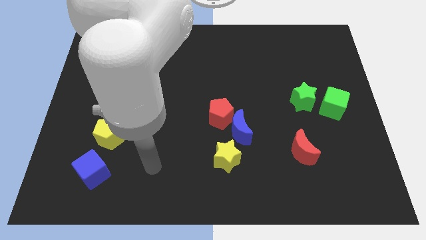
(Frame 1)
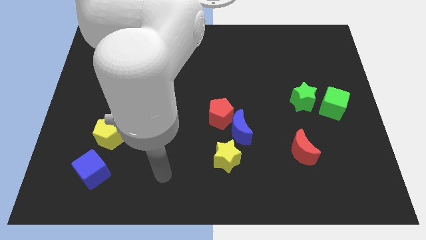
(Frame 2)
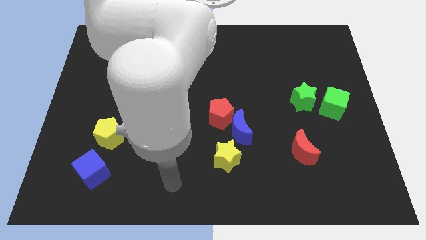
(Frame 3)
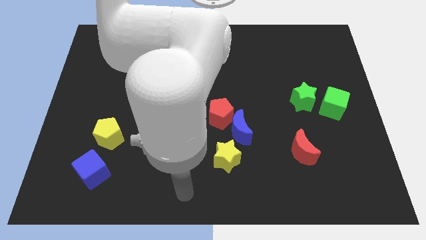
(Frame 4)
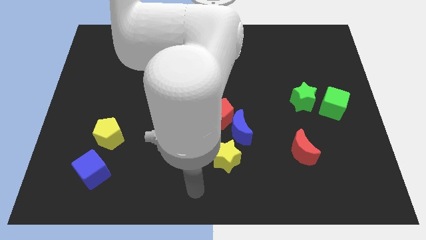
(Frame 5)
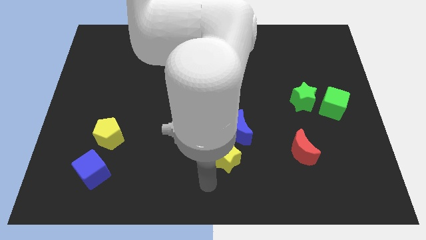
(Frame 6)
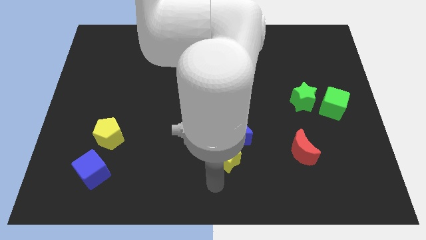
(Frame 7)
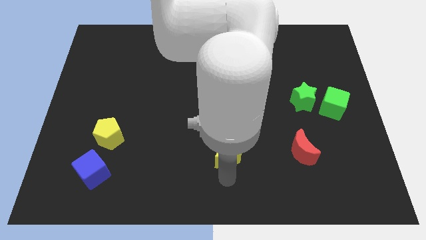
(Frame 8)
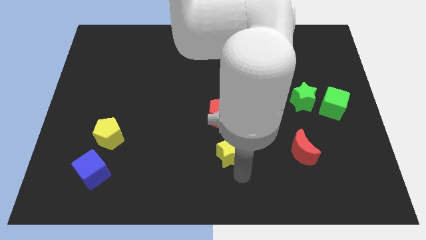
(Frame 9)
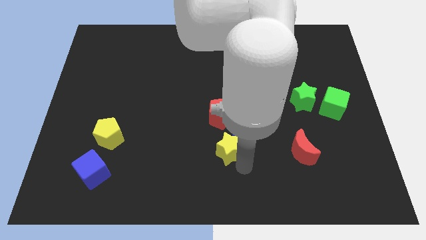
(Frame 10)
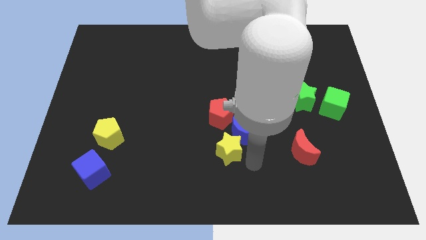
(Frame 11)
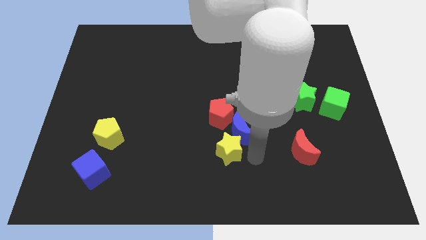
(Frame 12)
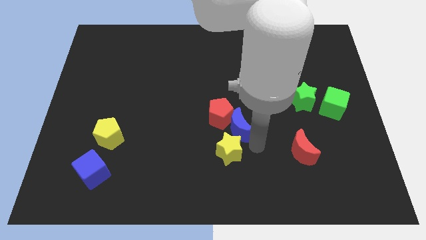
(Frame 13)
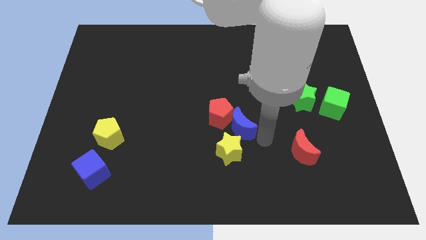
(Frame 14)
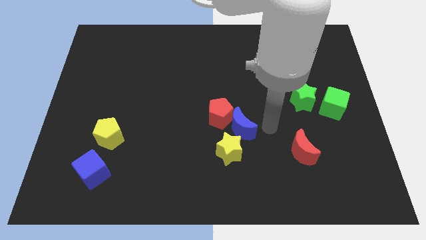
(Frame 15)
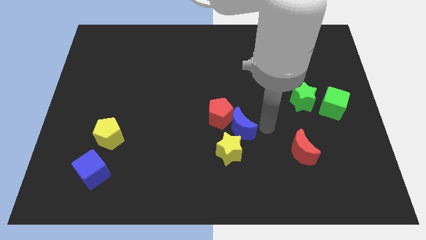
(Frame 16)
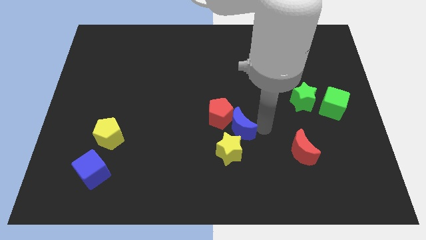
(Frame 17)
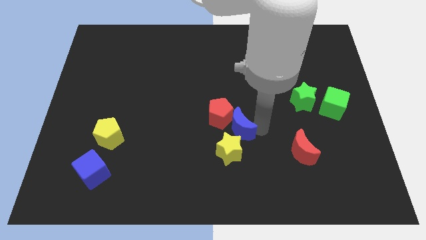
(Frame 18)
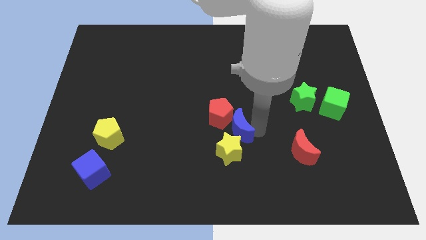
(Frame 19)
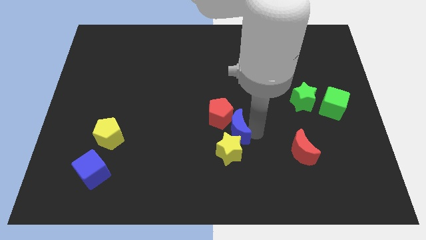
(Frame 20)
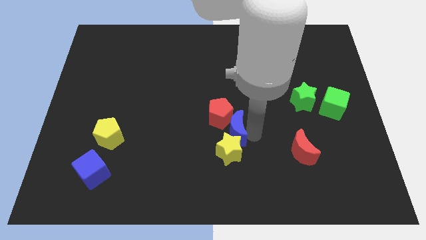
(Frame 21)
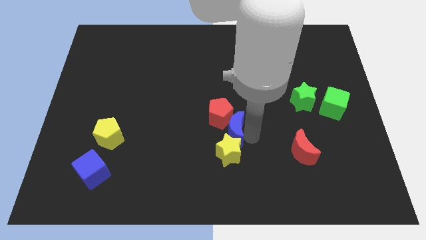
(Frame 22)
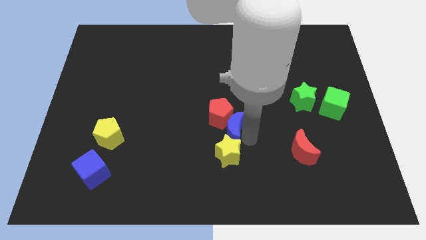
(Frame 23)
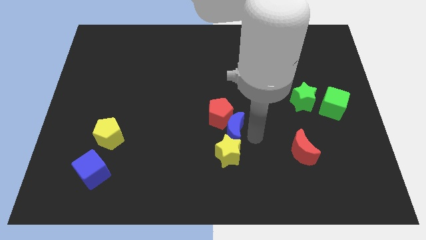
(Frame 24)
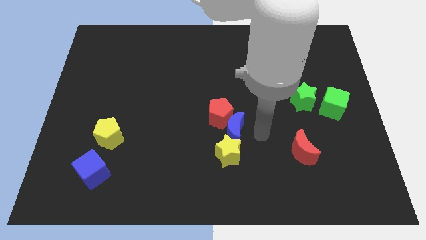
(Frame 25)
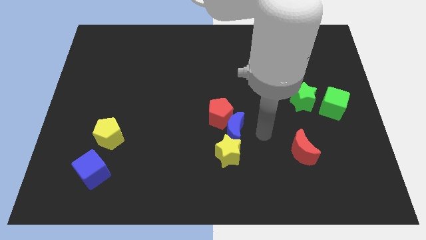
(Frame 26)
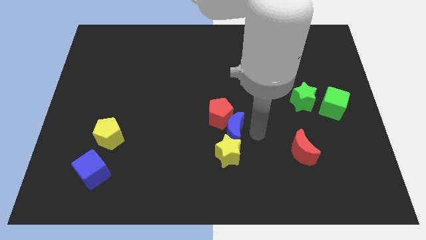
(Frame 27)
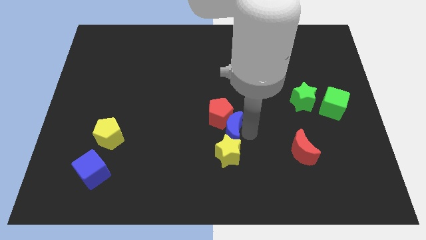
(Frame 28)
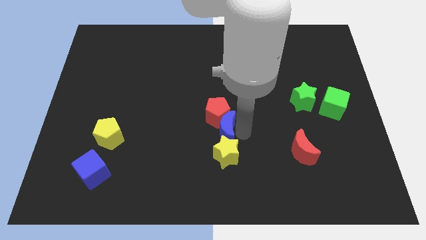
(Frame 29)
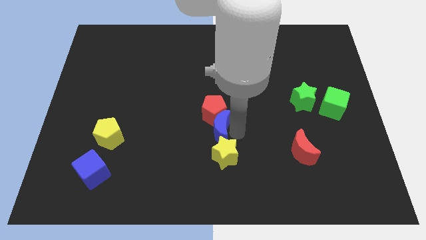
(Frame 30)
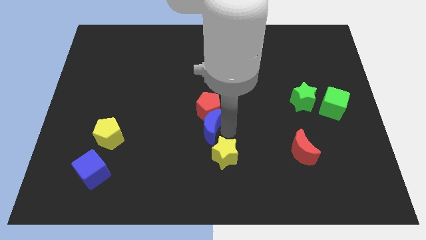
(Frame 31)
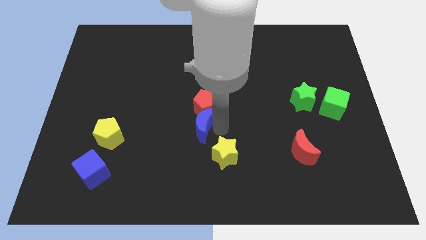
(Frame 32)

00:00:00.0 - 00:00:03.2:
slightly slide the blue moon left

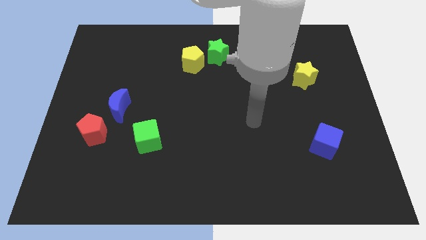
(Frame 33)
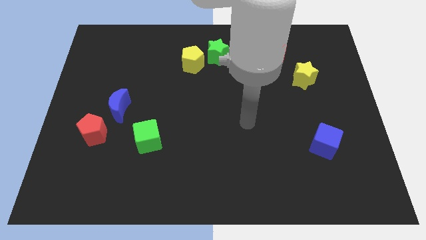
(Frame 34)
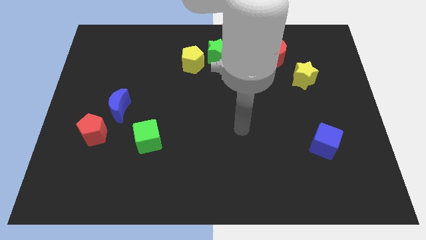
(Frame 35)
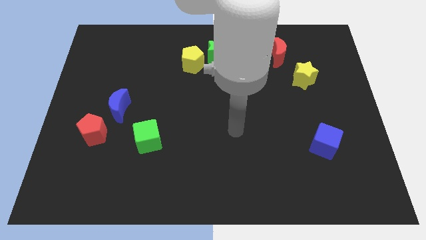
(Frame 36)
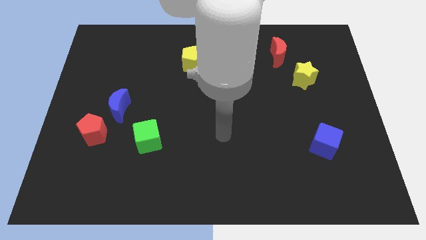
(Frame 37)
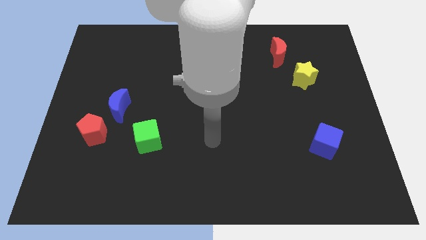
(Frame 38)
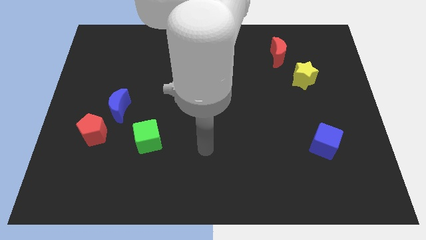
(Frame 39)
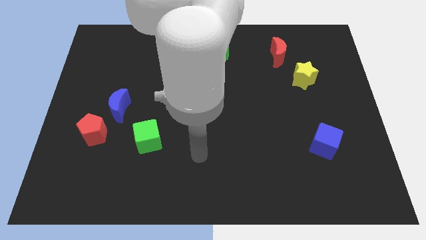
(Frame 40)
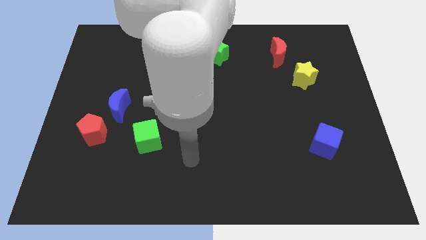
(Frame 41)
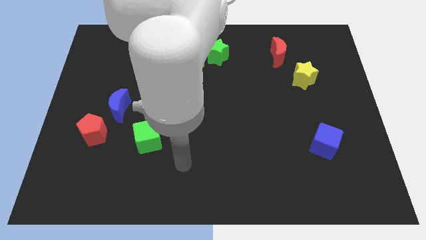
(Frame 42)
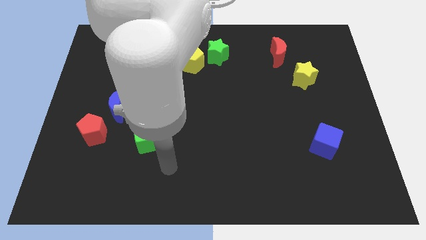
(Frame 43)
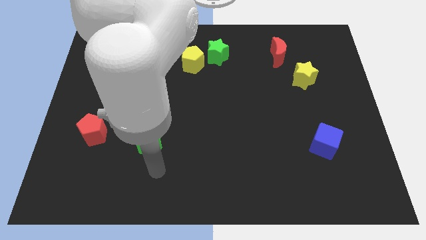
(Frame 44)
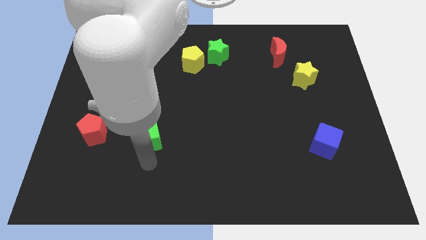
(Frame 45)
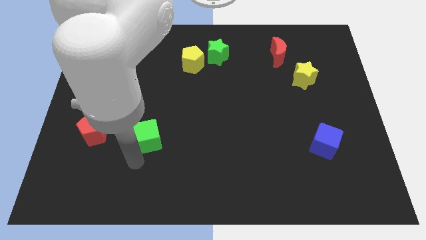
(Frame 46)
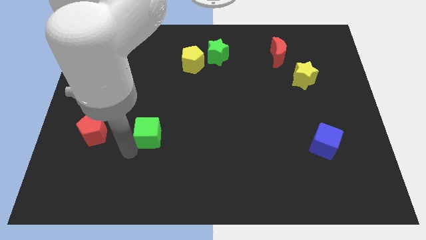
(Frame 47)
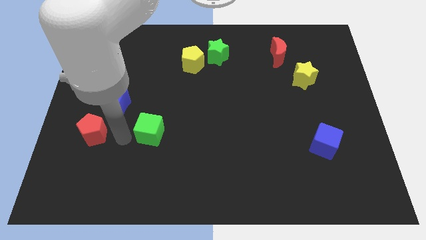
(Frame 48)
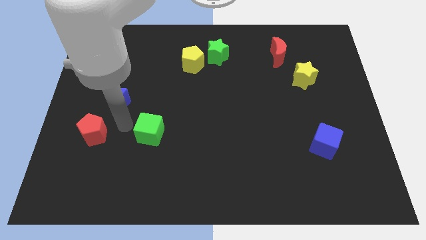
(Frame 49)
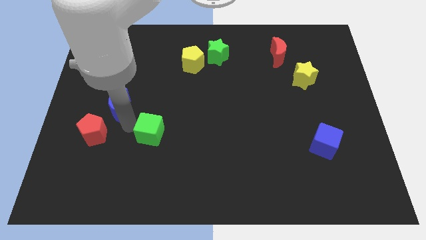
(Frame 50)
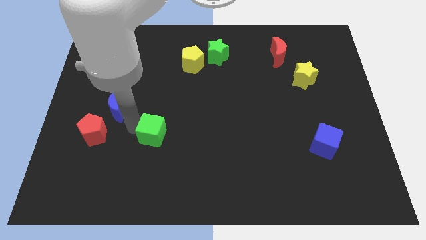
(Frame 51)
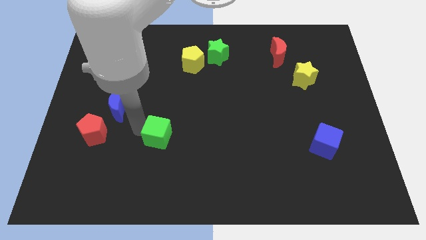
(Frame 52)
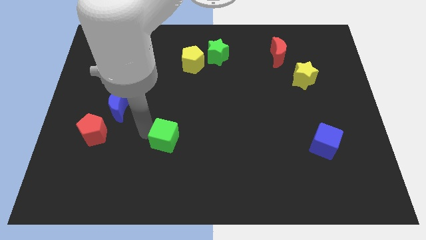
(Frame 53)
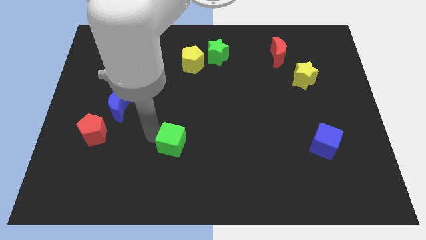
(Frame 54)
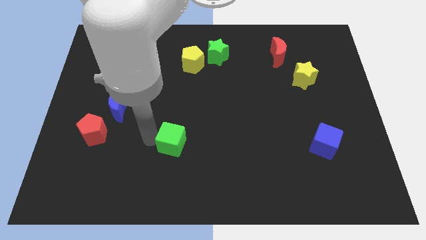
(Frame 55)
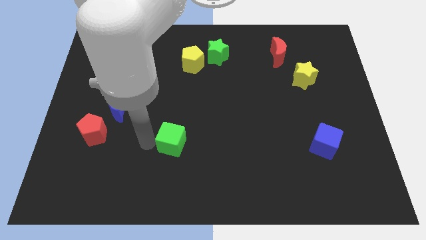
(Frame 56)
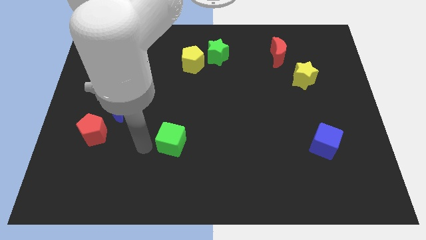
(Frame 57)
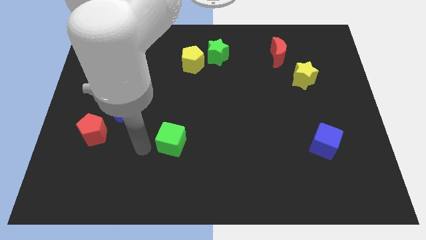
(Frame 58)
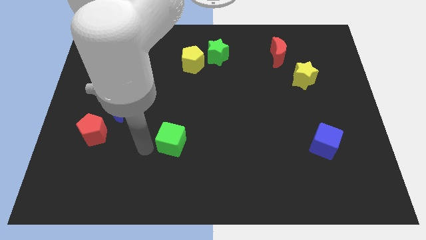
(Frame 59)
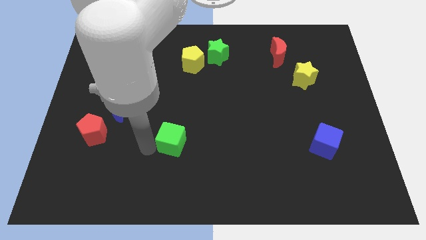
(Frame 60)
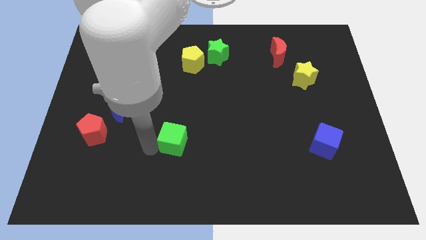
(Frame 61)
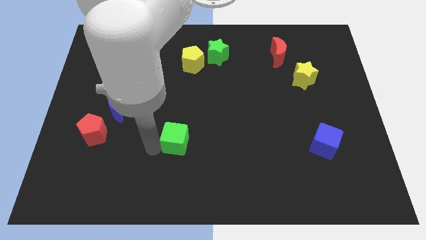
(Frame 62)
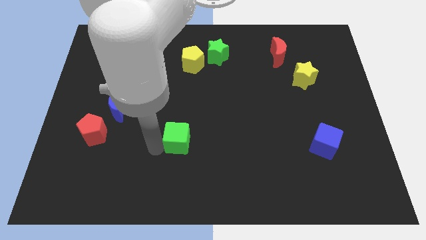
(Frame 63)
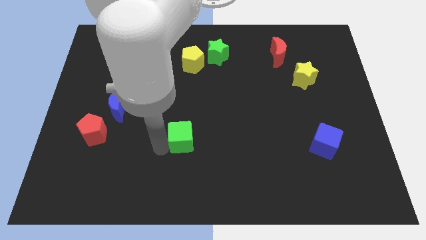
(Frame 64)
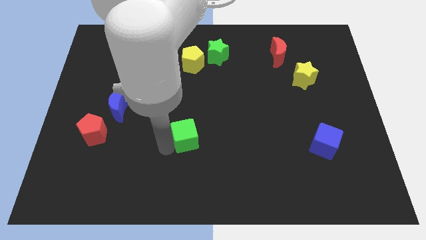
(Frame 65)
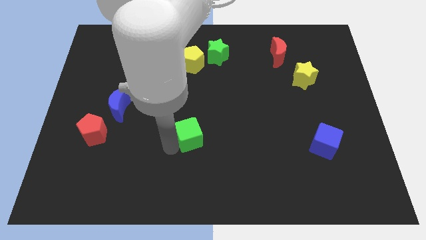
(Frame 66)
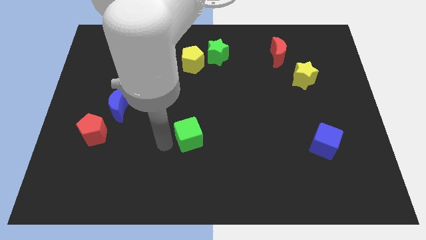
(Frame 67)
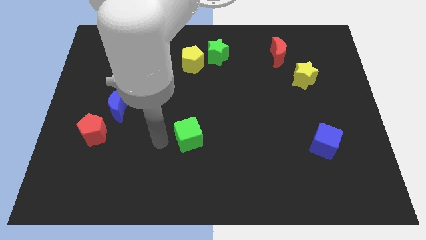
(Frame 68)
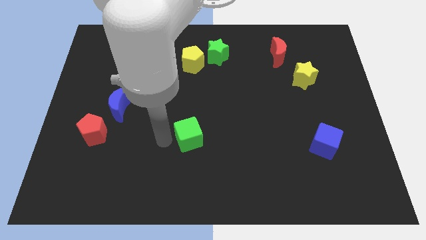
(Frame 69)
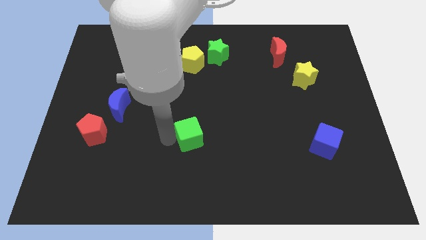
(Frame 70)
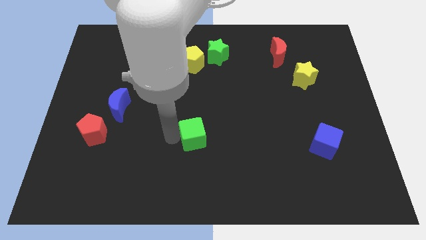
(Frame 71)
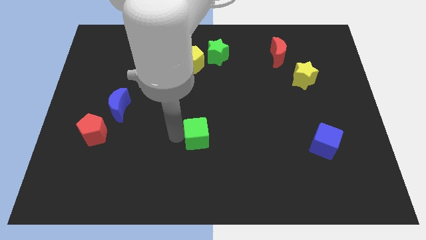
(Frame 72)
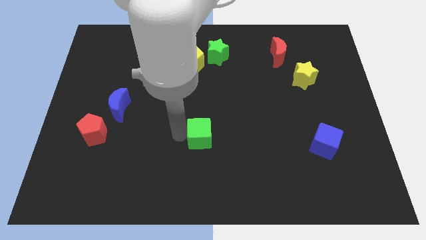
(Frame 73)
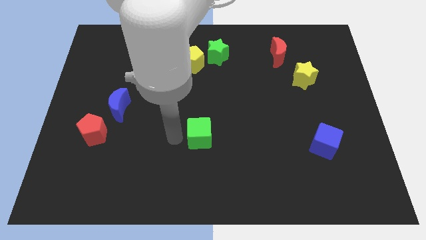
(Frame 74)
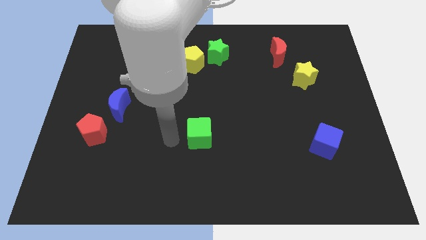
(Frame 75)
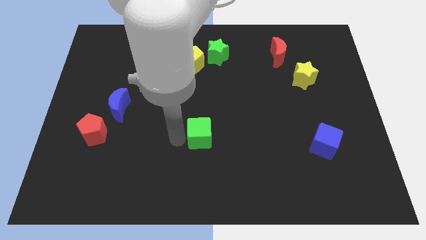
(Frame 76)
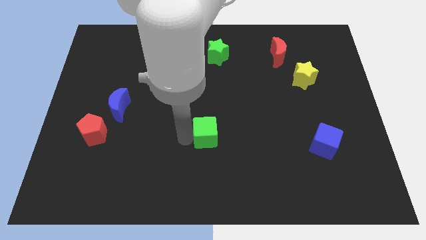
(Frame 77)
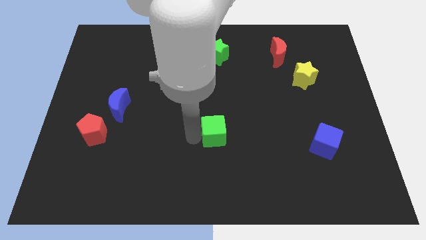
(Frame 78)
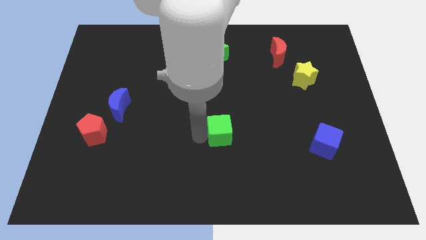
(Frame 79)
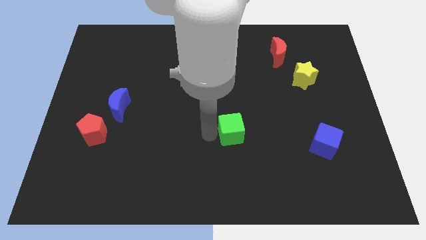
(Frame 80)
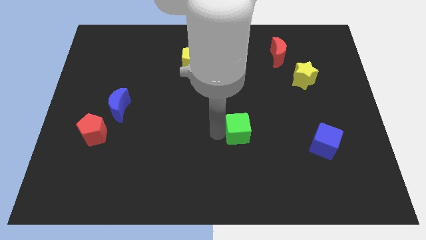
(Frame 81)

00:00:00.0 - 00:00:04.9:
move the green cube right
